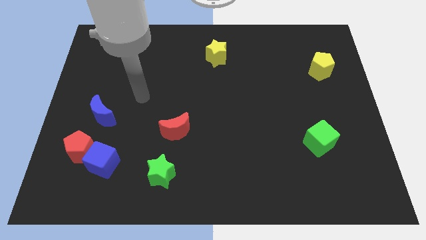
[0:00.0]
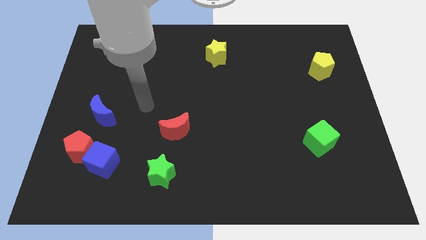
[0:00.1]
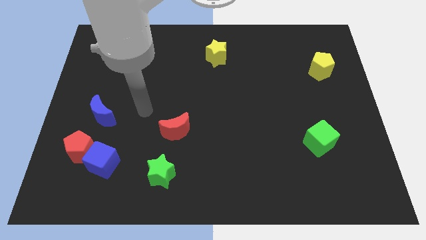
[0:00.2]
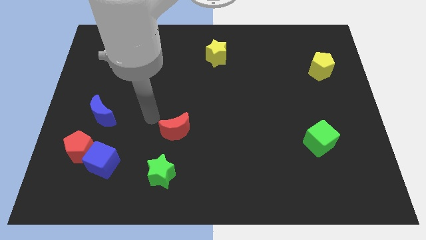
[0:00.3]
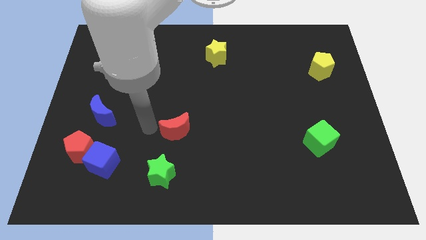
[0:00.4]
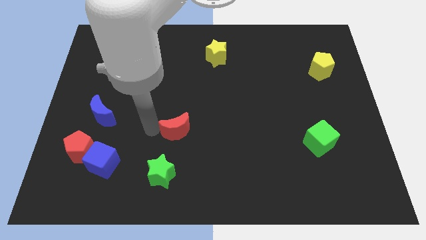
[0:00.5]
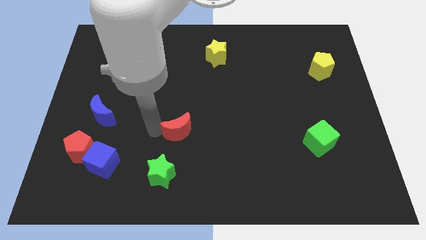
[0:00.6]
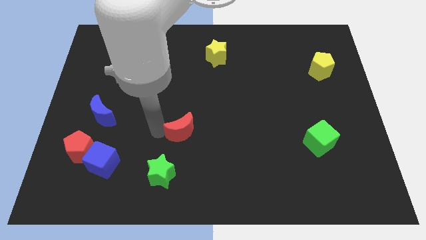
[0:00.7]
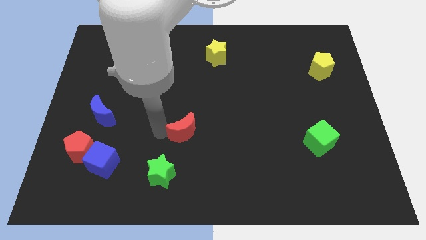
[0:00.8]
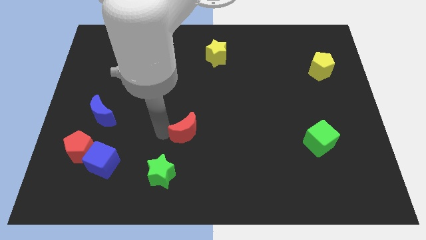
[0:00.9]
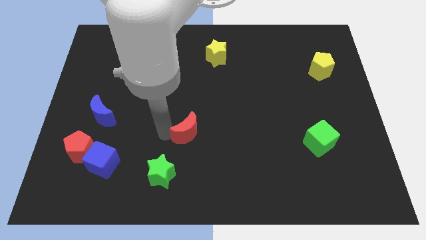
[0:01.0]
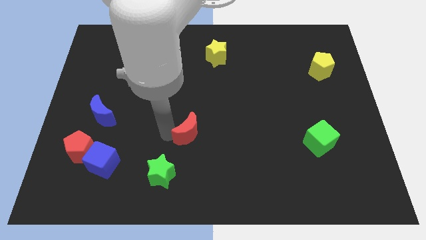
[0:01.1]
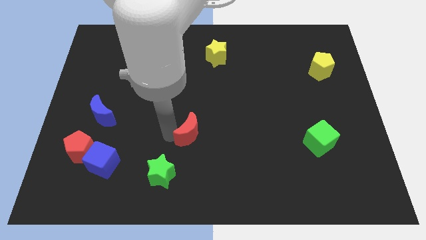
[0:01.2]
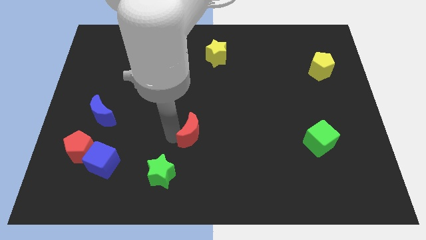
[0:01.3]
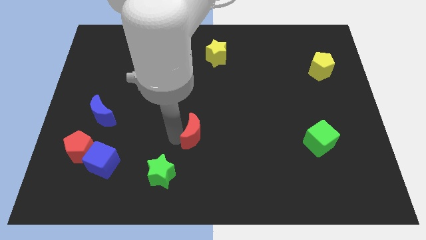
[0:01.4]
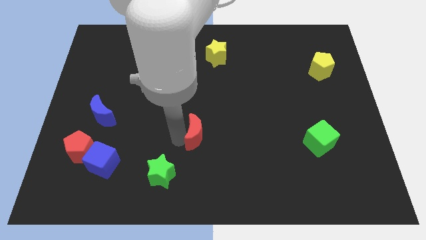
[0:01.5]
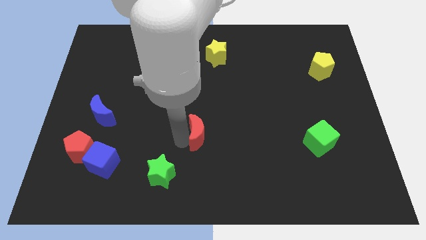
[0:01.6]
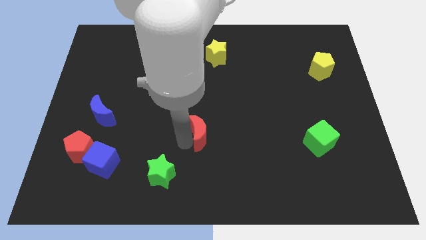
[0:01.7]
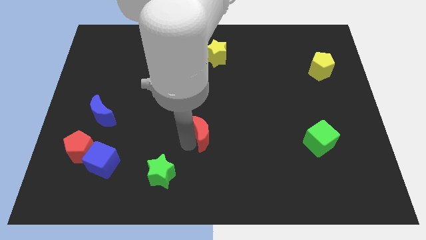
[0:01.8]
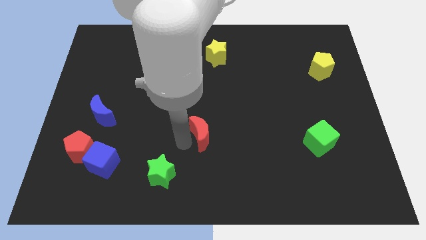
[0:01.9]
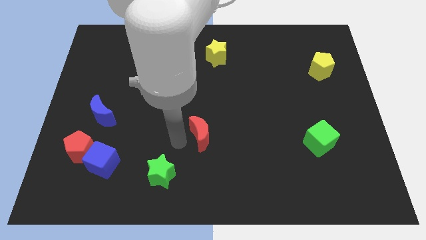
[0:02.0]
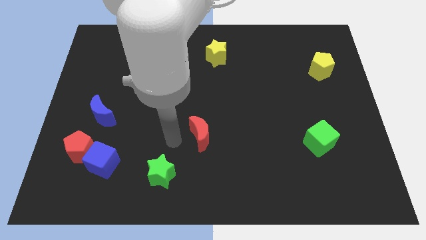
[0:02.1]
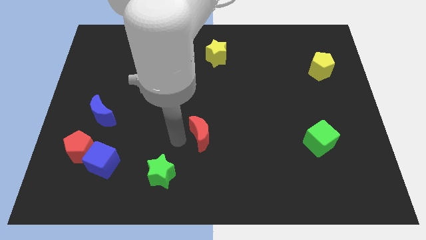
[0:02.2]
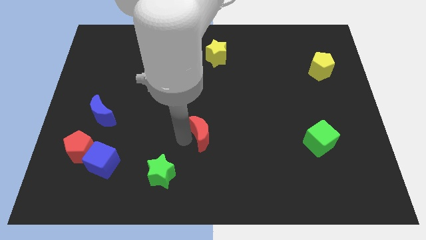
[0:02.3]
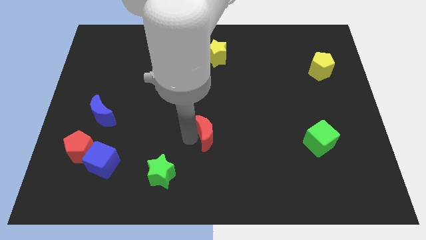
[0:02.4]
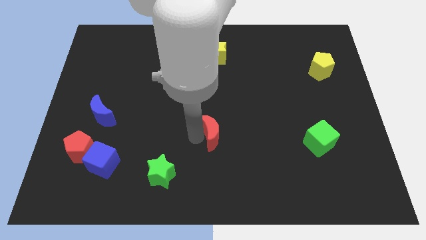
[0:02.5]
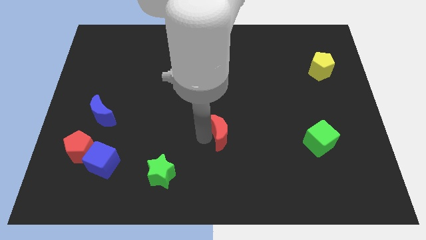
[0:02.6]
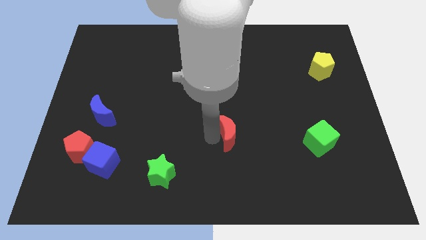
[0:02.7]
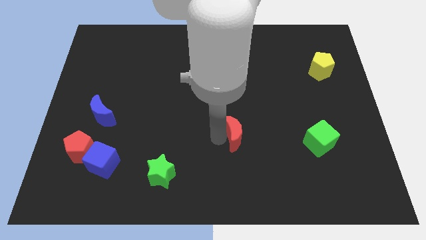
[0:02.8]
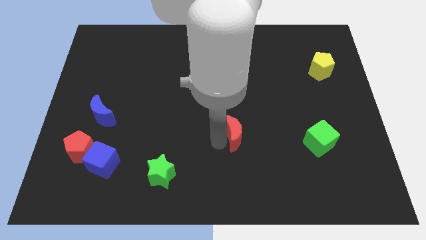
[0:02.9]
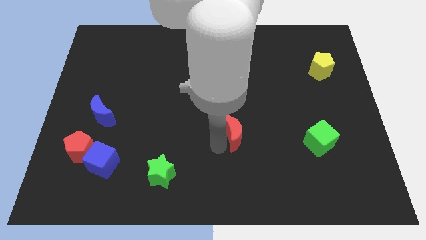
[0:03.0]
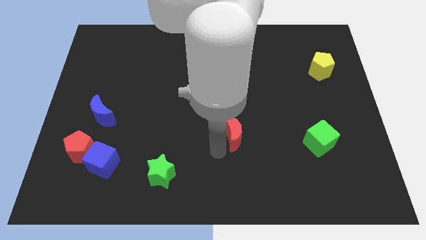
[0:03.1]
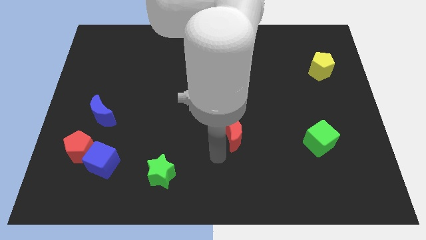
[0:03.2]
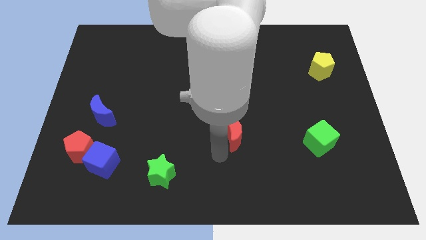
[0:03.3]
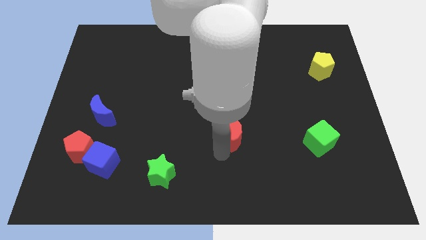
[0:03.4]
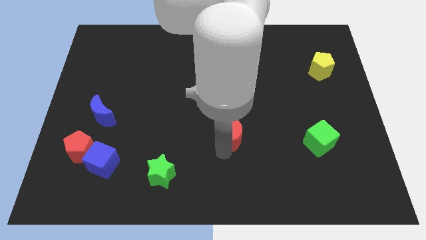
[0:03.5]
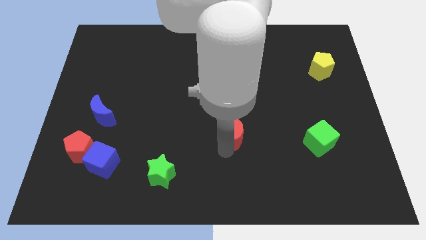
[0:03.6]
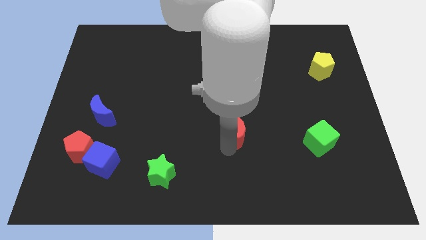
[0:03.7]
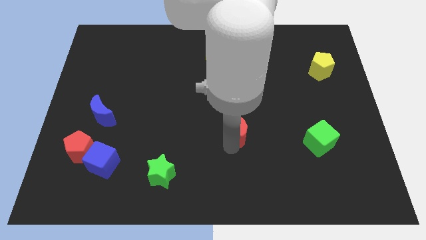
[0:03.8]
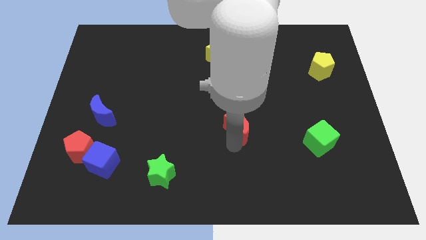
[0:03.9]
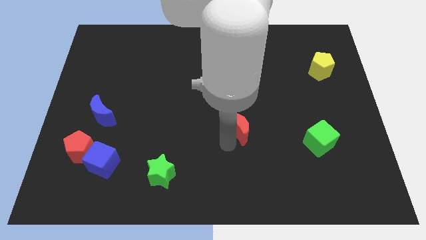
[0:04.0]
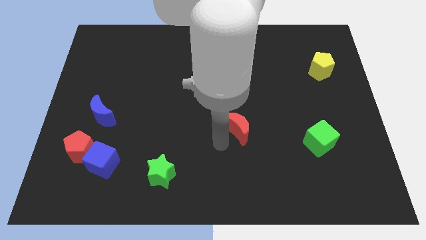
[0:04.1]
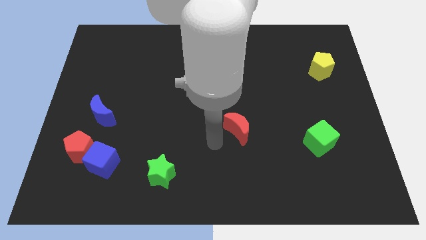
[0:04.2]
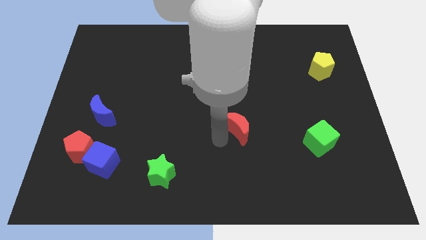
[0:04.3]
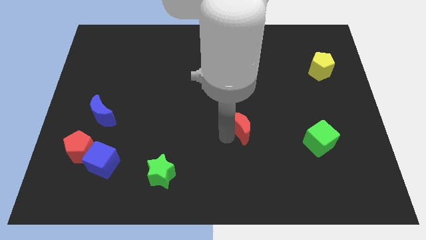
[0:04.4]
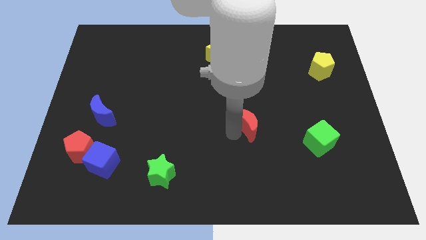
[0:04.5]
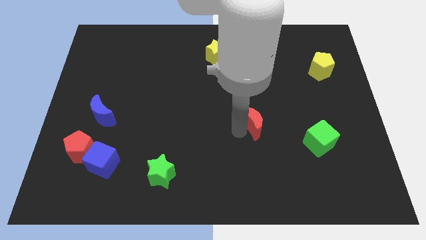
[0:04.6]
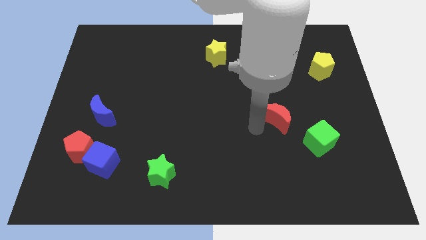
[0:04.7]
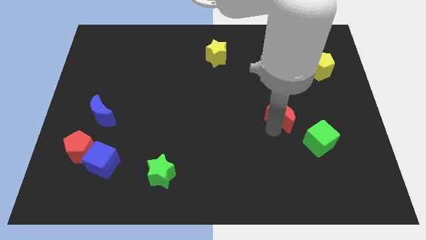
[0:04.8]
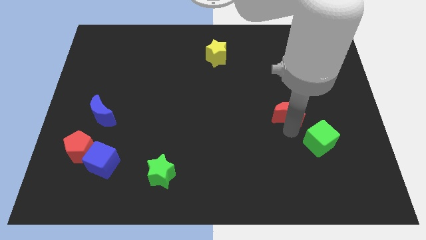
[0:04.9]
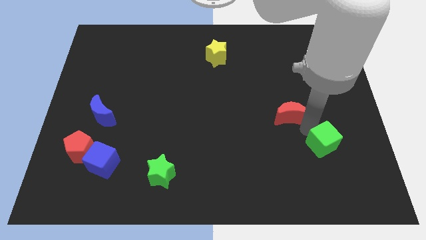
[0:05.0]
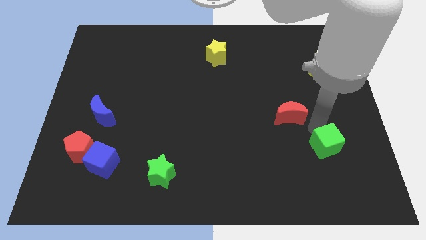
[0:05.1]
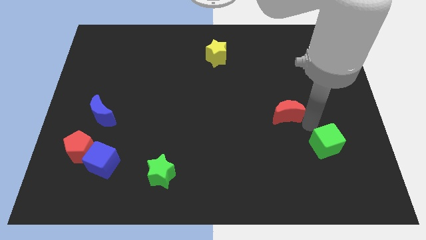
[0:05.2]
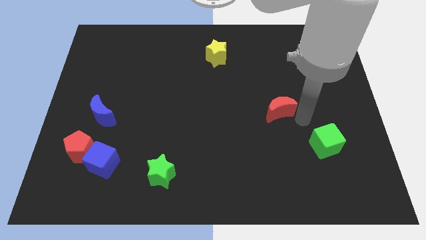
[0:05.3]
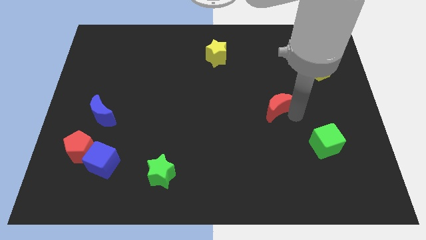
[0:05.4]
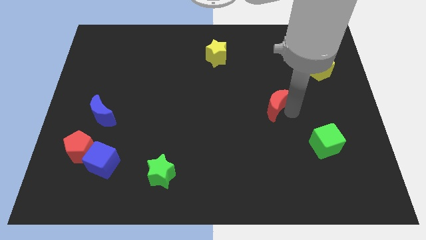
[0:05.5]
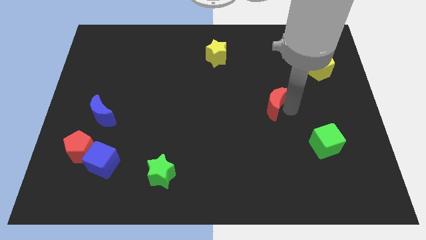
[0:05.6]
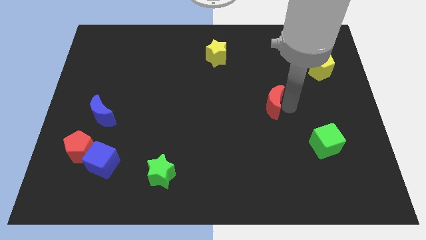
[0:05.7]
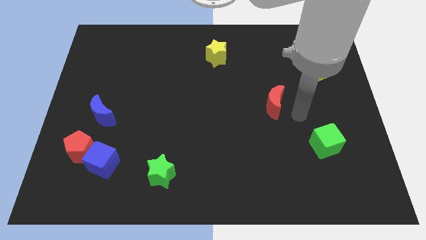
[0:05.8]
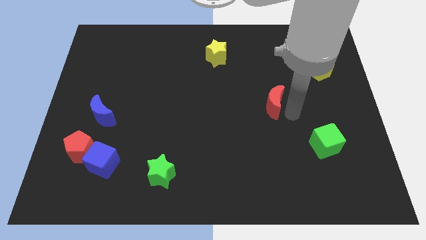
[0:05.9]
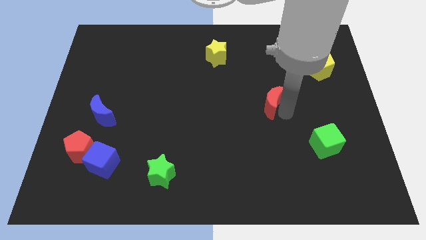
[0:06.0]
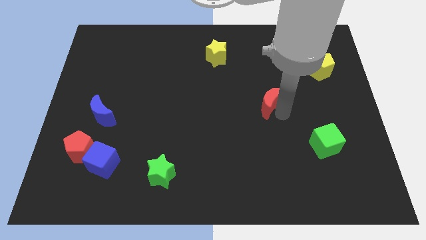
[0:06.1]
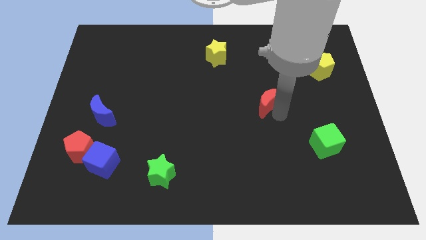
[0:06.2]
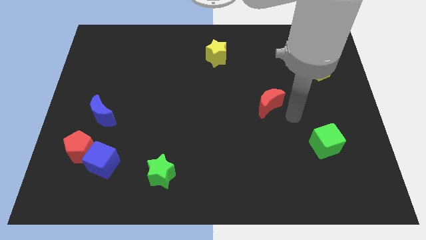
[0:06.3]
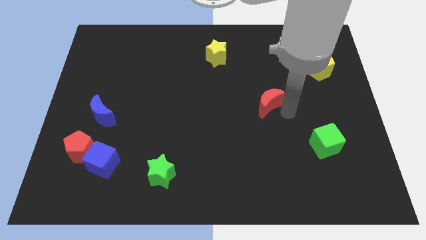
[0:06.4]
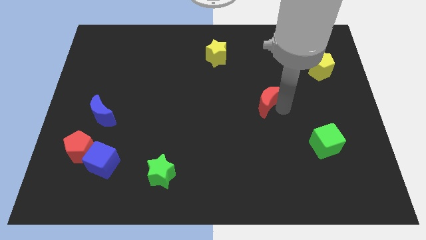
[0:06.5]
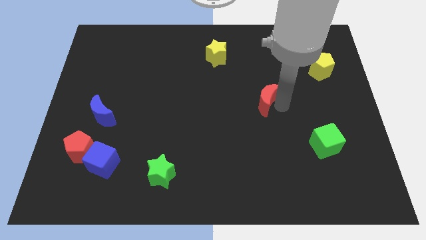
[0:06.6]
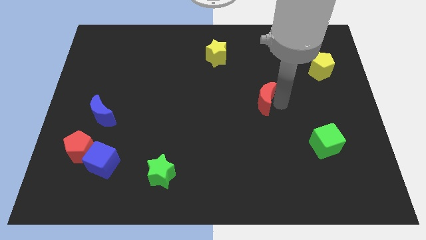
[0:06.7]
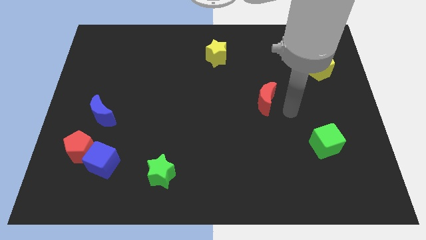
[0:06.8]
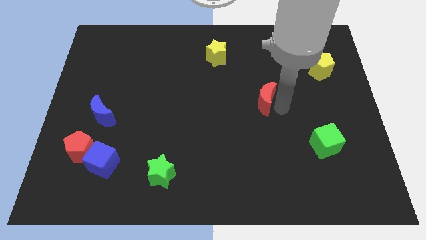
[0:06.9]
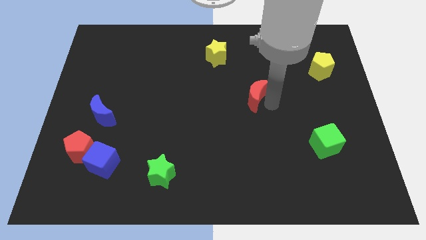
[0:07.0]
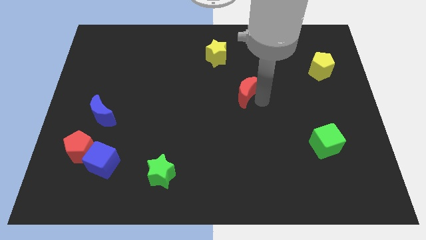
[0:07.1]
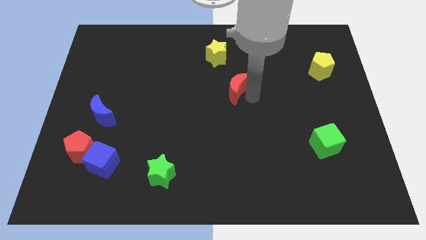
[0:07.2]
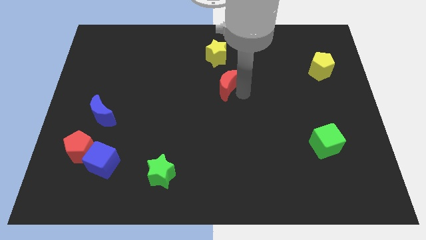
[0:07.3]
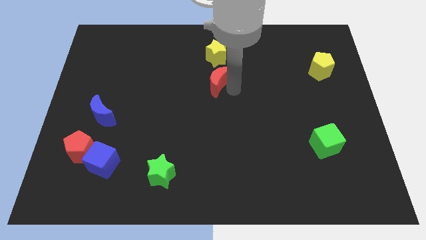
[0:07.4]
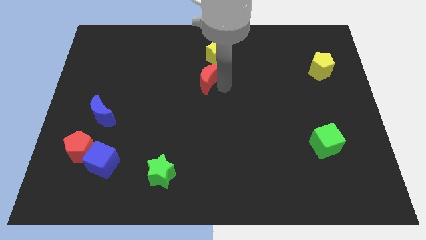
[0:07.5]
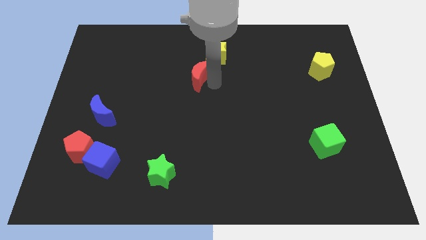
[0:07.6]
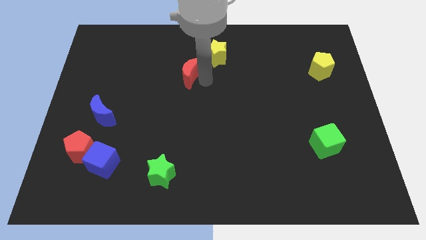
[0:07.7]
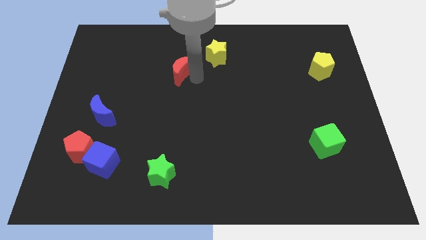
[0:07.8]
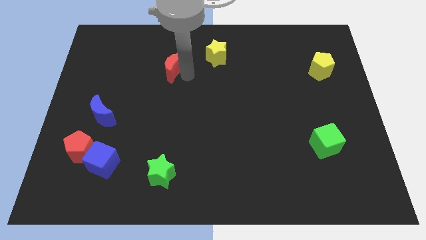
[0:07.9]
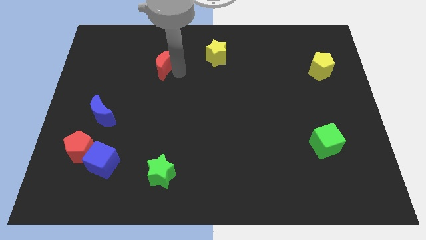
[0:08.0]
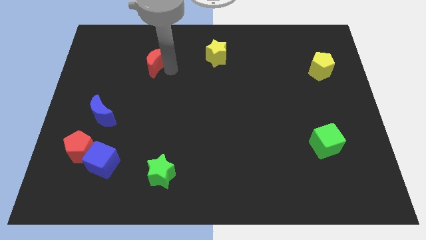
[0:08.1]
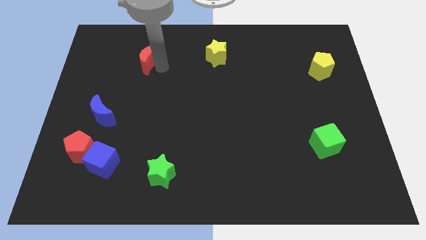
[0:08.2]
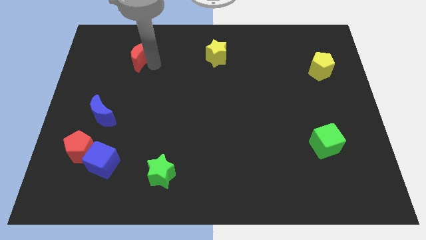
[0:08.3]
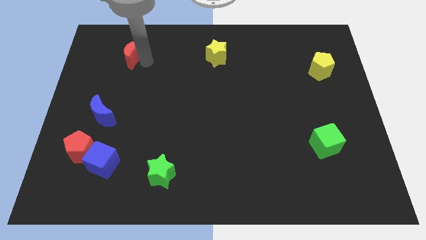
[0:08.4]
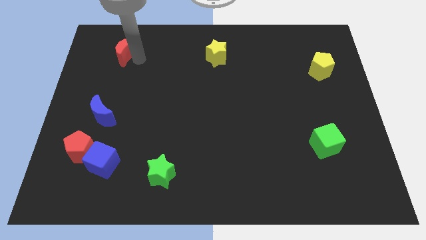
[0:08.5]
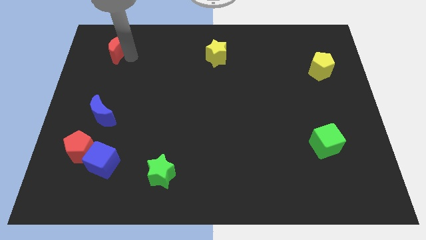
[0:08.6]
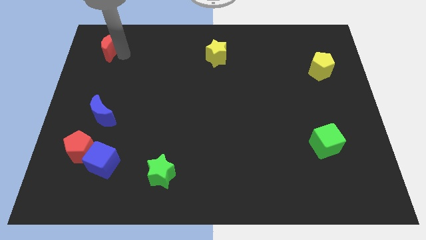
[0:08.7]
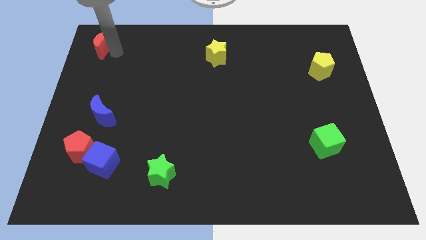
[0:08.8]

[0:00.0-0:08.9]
push the red moon to the upper left corner
